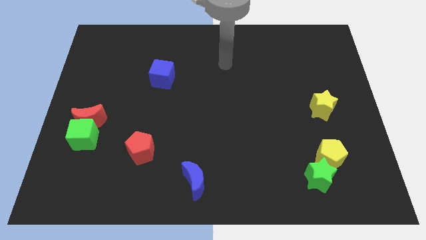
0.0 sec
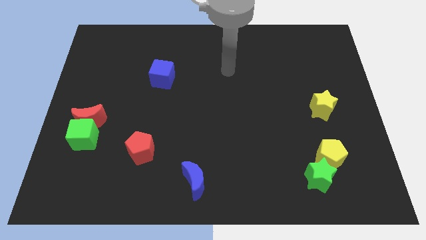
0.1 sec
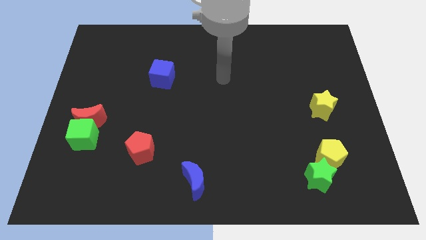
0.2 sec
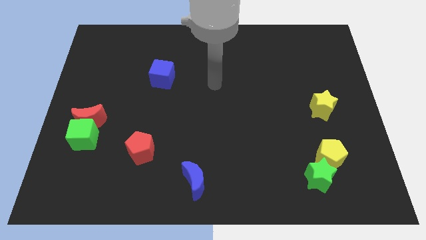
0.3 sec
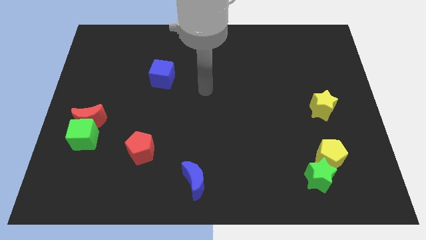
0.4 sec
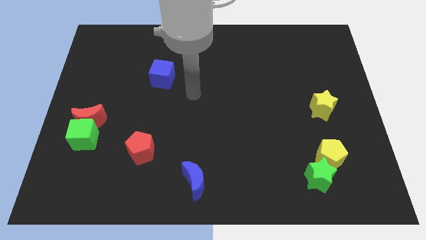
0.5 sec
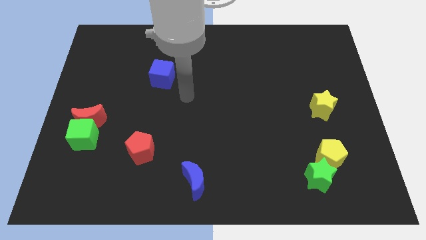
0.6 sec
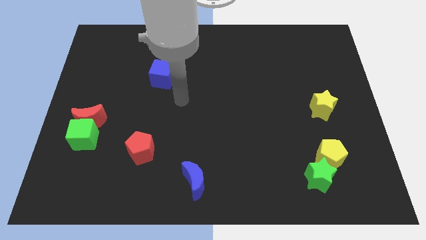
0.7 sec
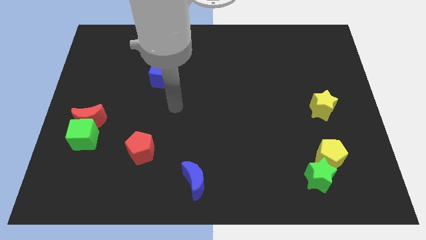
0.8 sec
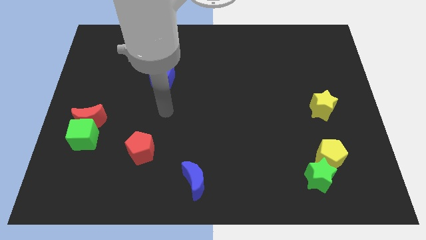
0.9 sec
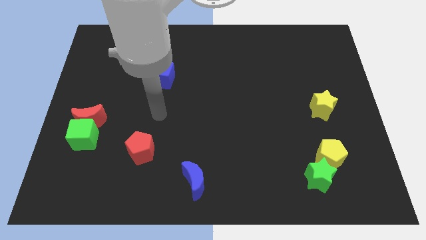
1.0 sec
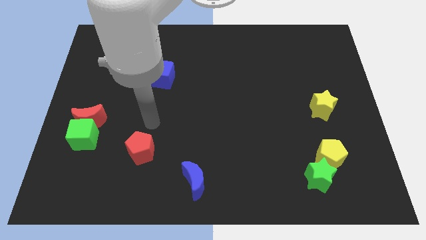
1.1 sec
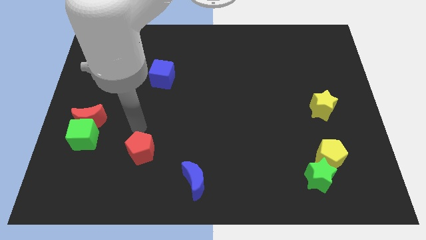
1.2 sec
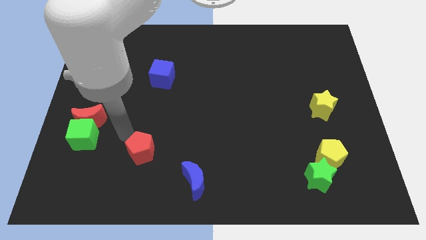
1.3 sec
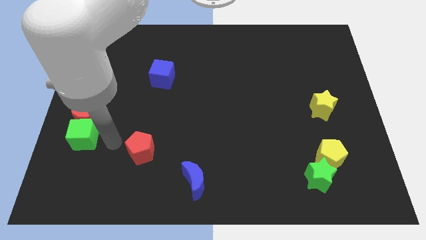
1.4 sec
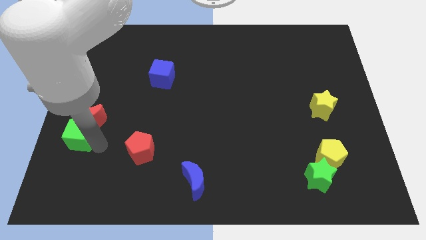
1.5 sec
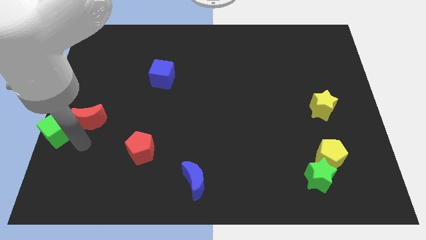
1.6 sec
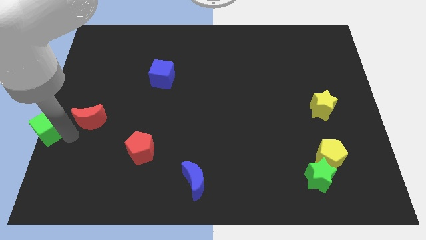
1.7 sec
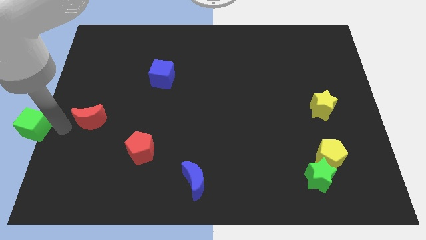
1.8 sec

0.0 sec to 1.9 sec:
move the red moon away from the green cube

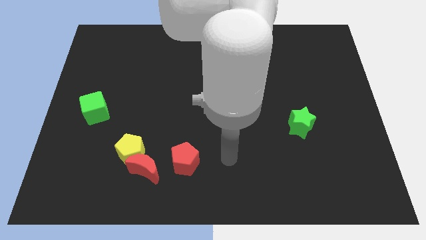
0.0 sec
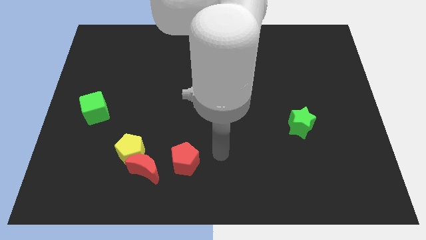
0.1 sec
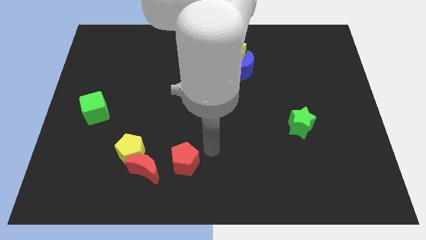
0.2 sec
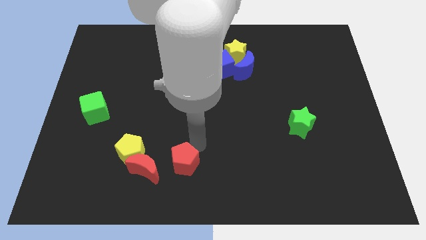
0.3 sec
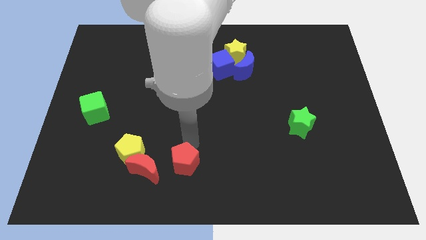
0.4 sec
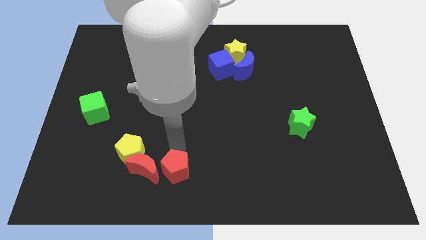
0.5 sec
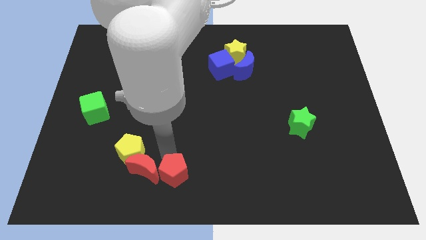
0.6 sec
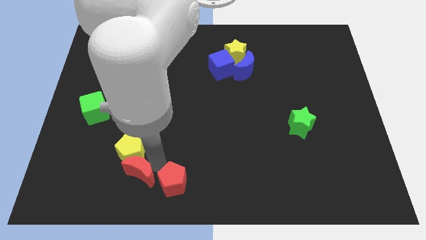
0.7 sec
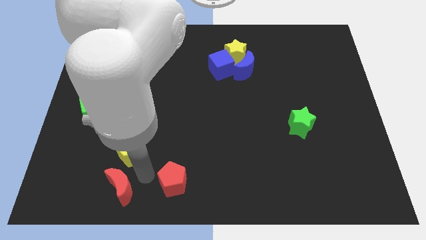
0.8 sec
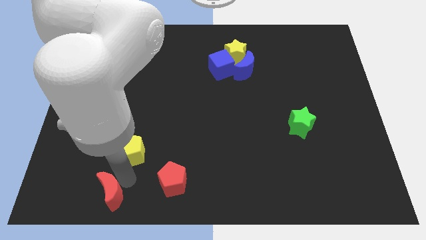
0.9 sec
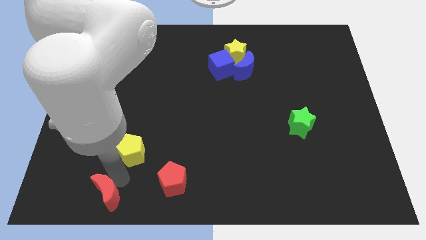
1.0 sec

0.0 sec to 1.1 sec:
move the yellow pentagon away from the red moon

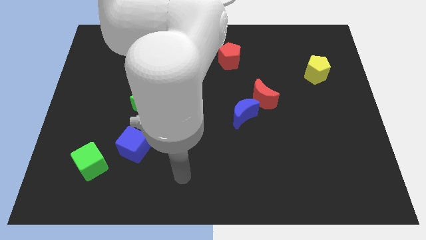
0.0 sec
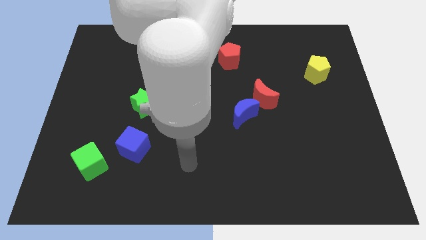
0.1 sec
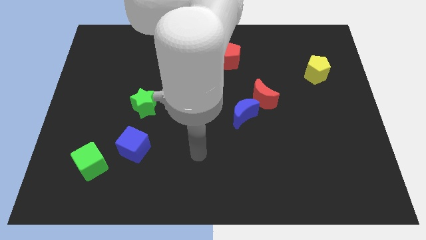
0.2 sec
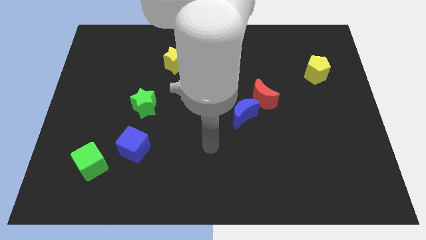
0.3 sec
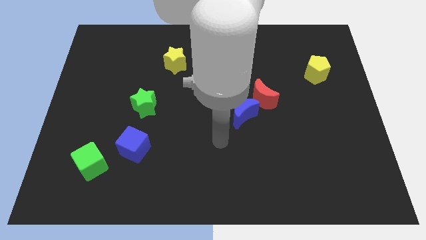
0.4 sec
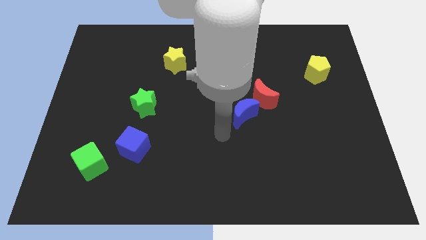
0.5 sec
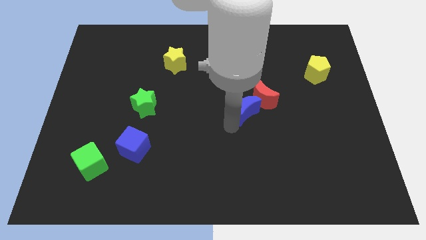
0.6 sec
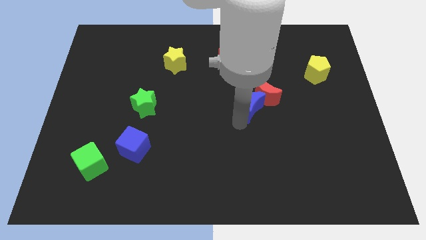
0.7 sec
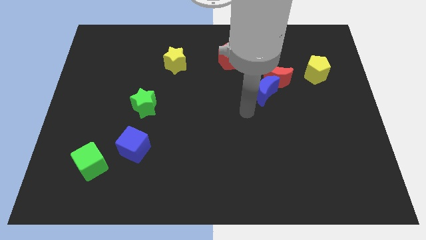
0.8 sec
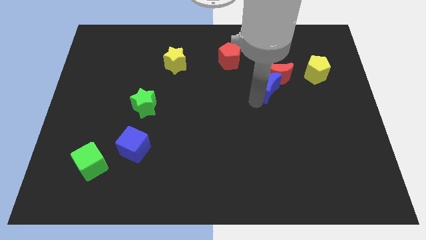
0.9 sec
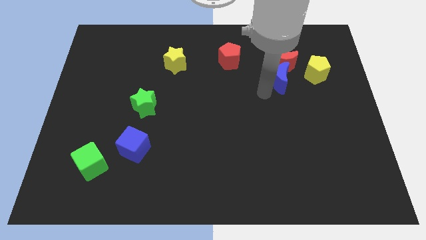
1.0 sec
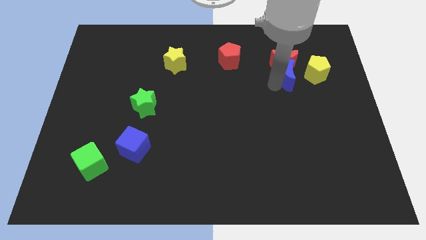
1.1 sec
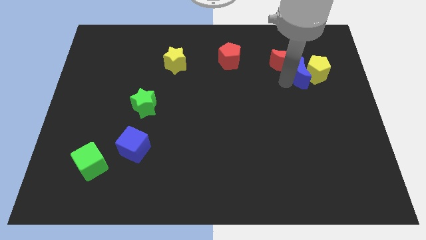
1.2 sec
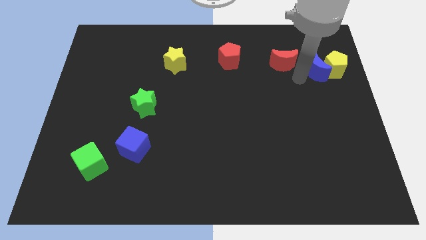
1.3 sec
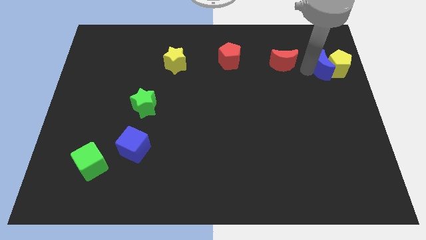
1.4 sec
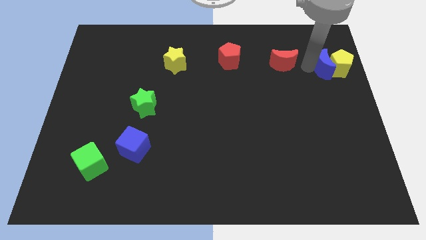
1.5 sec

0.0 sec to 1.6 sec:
pull the red moon apart from the blue moon

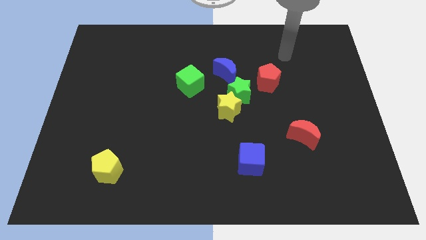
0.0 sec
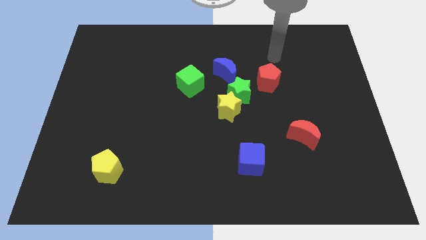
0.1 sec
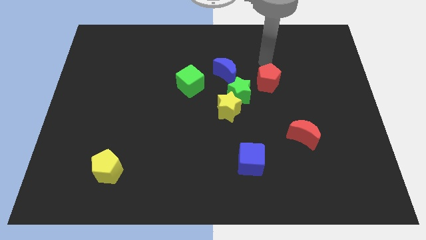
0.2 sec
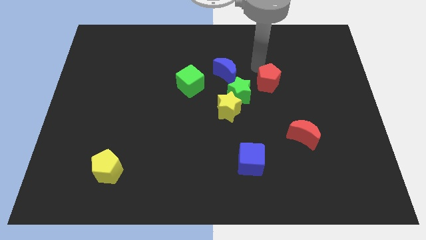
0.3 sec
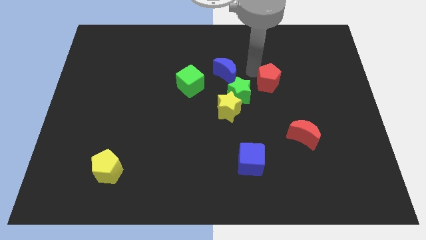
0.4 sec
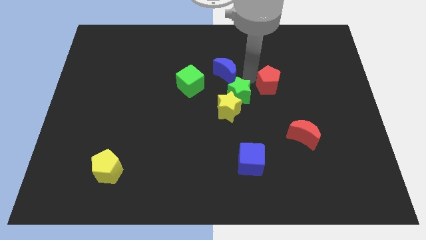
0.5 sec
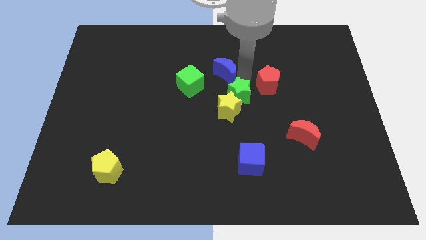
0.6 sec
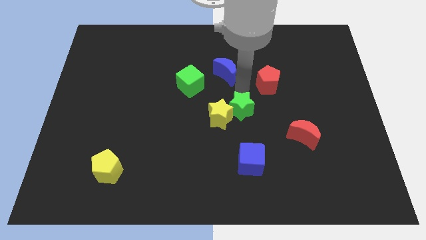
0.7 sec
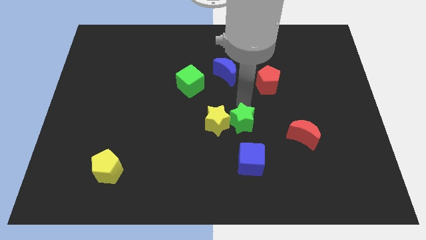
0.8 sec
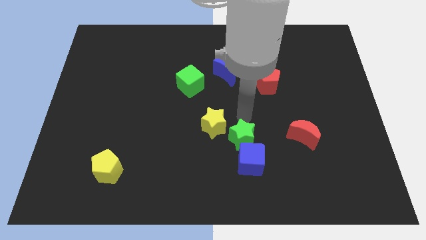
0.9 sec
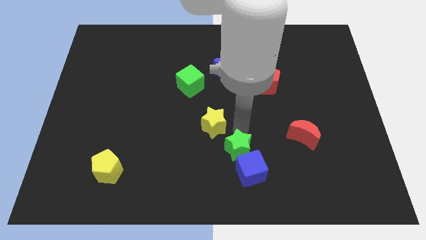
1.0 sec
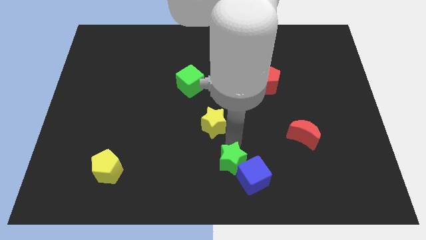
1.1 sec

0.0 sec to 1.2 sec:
pull the yellow star apart from the green star

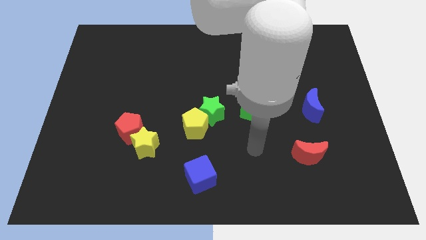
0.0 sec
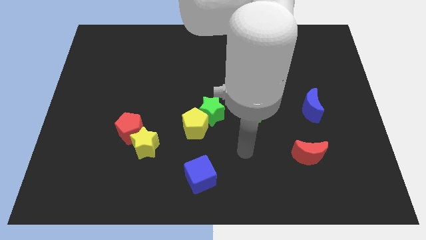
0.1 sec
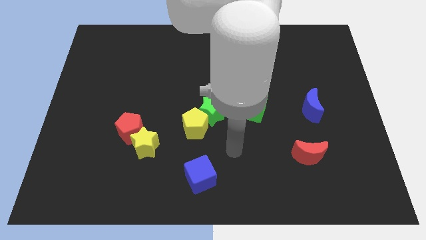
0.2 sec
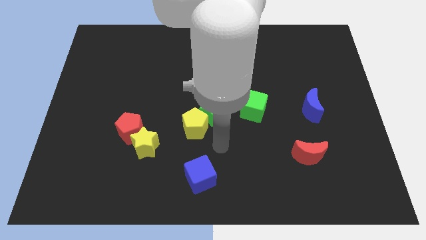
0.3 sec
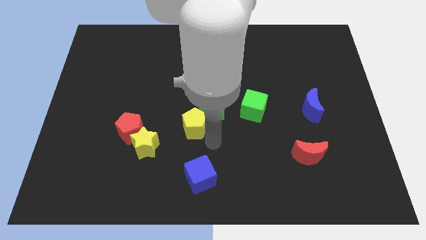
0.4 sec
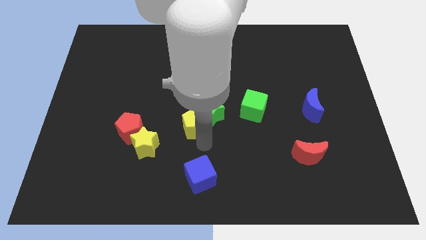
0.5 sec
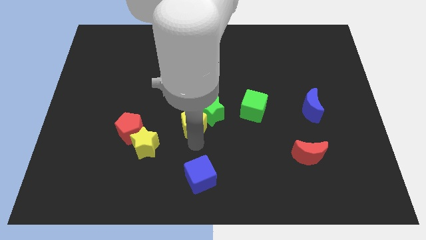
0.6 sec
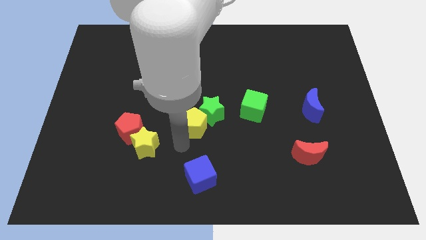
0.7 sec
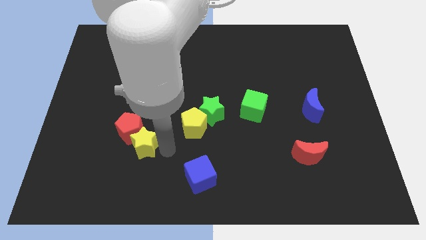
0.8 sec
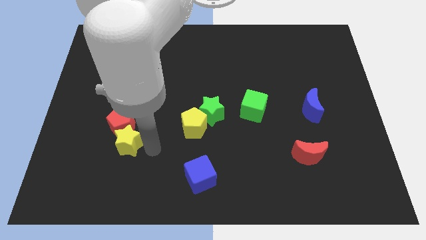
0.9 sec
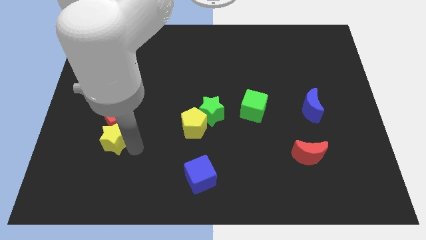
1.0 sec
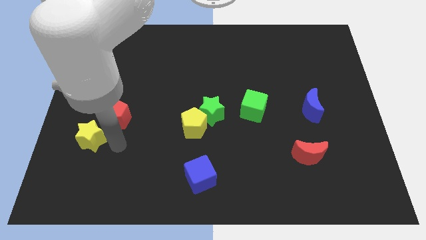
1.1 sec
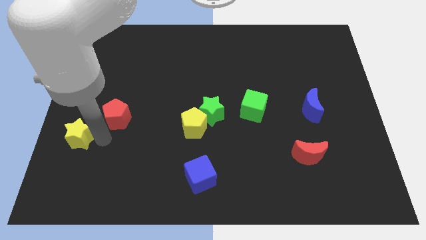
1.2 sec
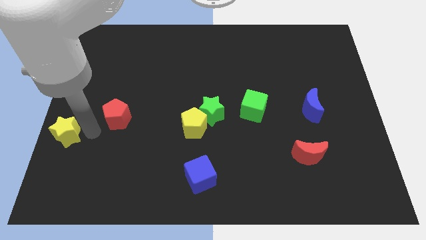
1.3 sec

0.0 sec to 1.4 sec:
separate the red pentagon from the yellow star

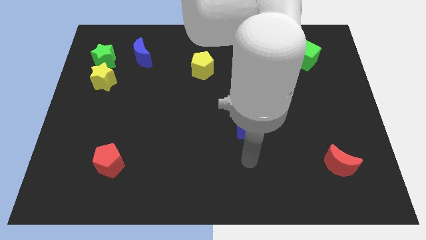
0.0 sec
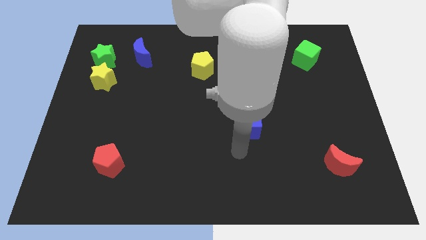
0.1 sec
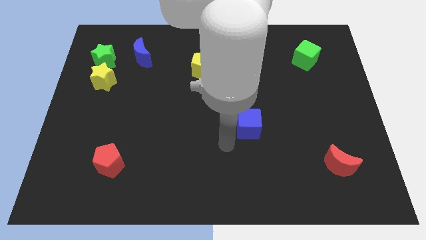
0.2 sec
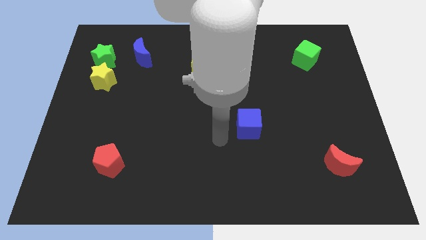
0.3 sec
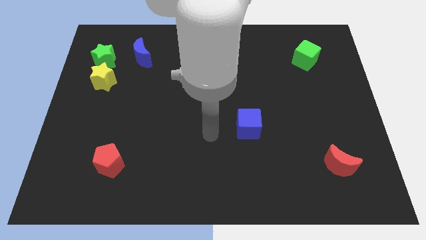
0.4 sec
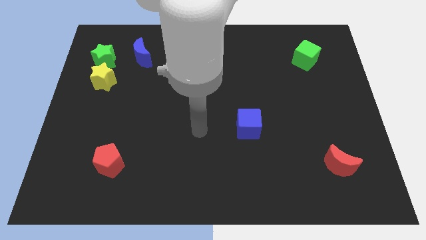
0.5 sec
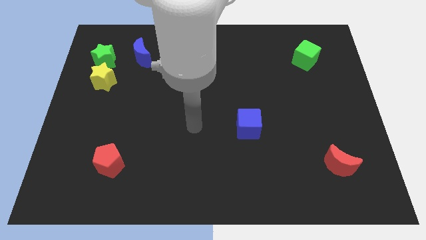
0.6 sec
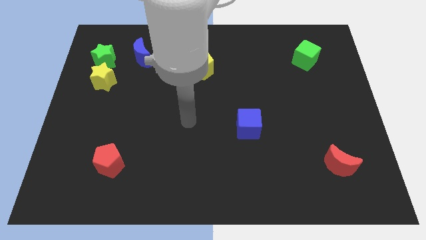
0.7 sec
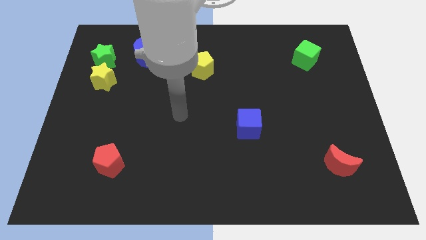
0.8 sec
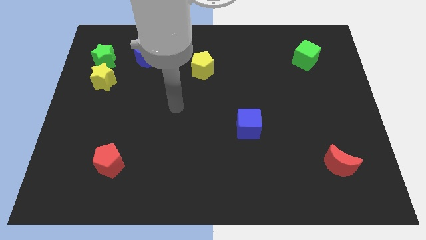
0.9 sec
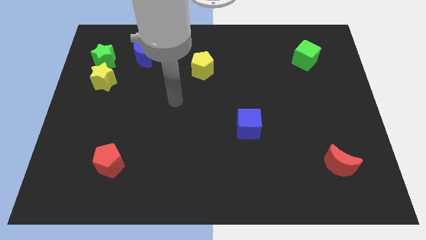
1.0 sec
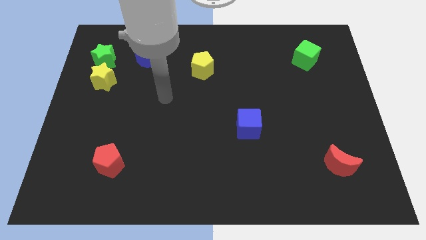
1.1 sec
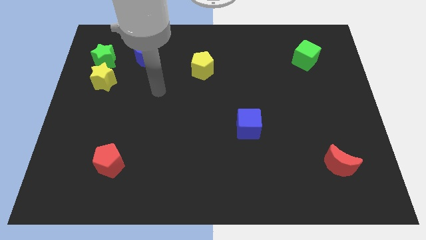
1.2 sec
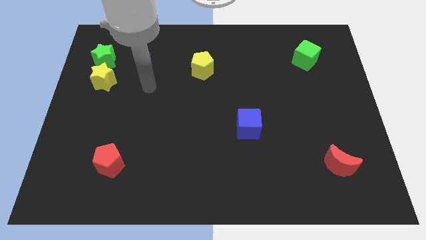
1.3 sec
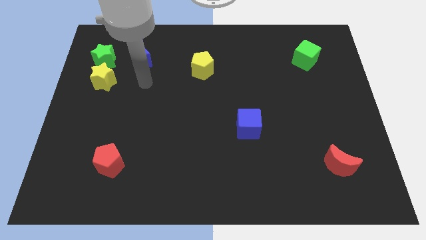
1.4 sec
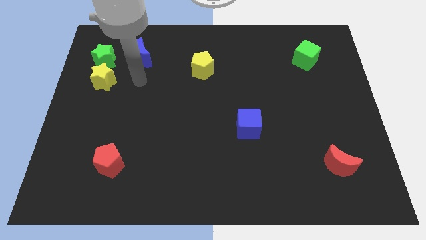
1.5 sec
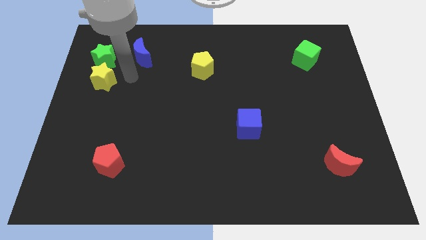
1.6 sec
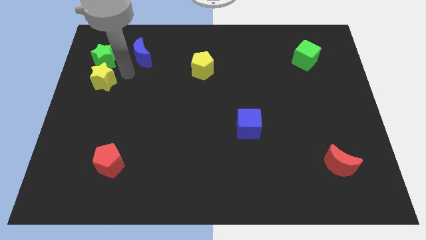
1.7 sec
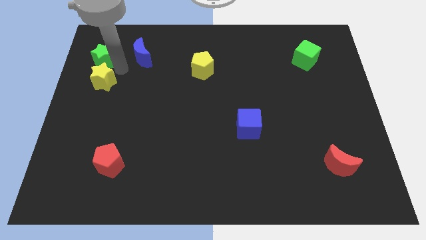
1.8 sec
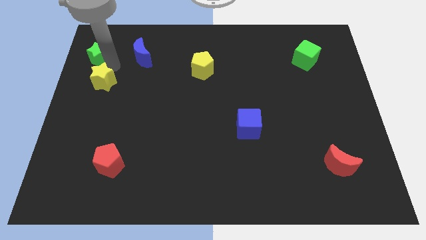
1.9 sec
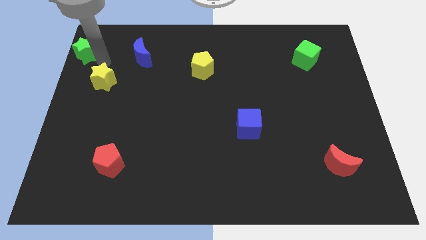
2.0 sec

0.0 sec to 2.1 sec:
separate the yellow star from the green star
